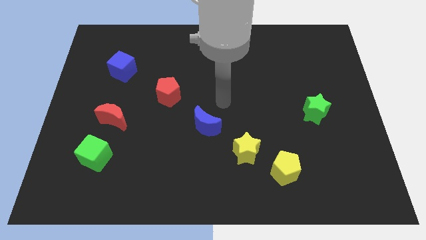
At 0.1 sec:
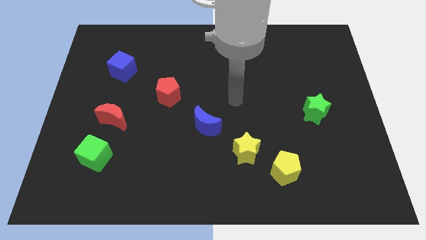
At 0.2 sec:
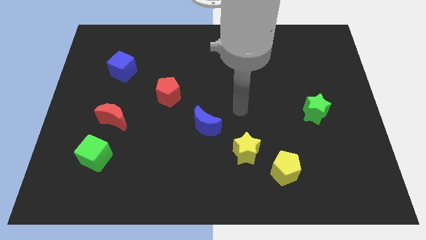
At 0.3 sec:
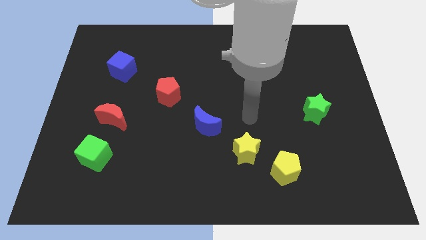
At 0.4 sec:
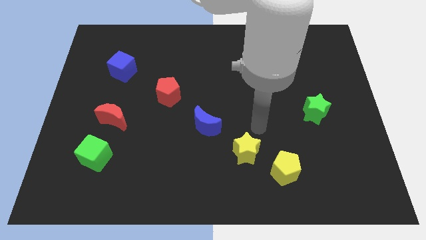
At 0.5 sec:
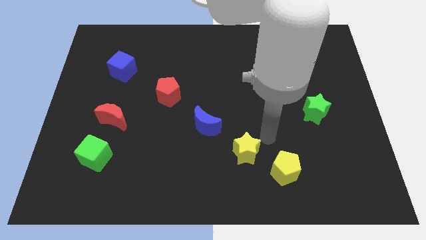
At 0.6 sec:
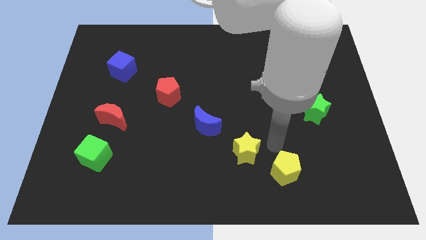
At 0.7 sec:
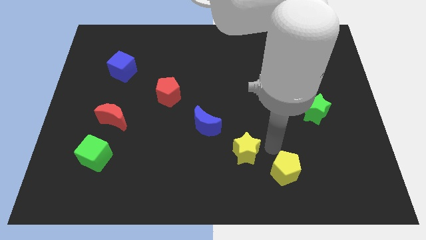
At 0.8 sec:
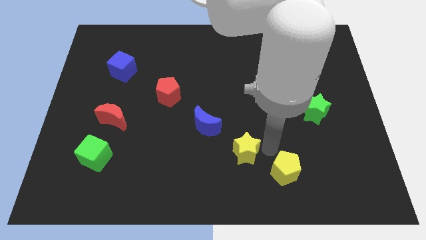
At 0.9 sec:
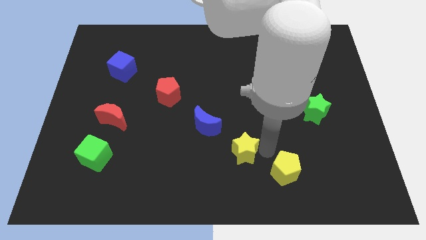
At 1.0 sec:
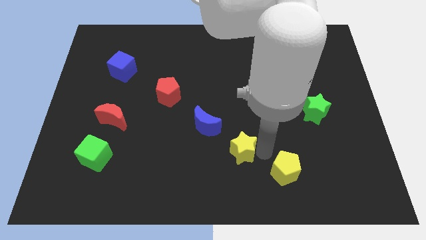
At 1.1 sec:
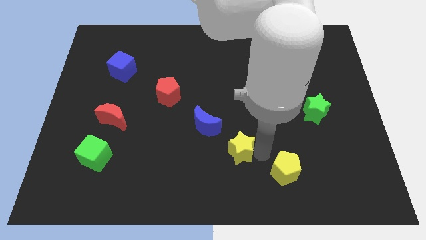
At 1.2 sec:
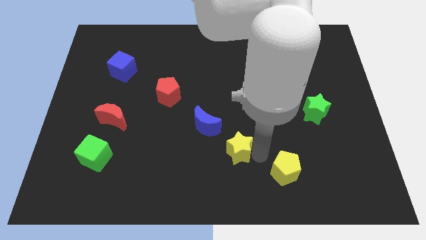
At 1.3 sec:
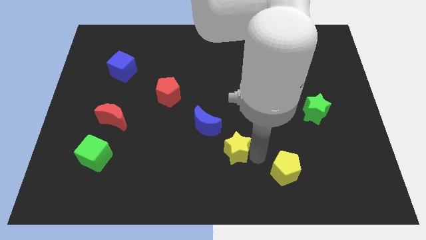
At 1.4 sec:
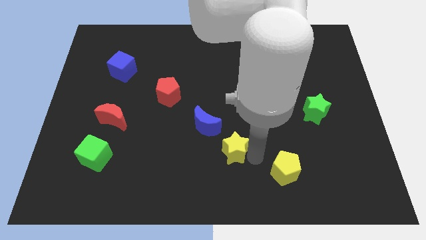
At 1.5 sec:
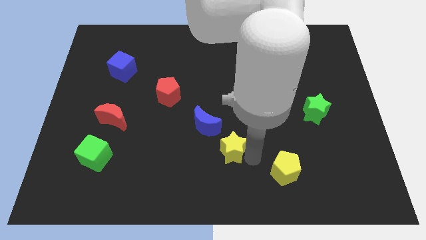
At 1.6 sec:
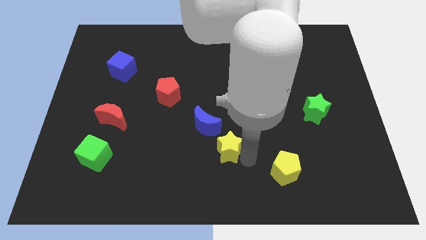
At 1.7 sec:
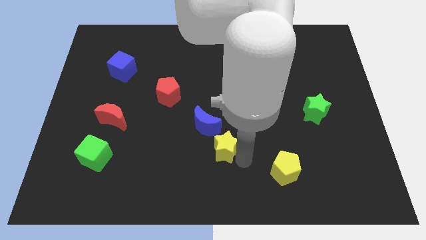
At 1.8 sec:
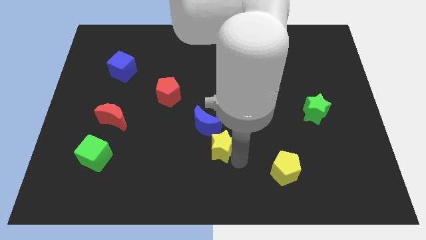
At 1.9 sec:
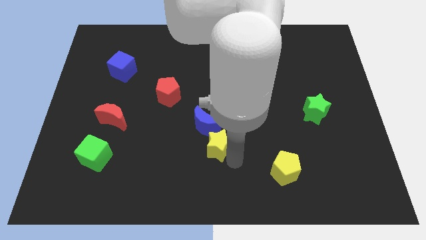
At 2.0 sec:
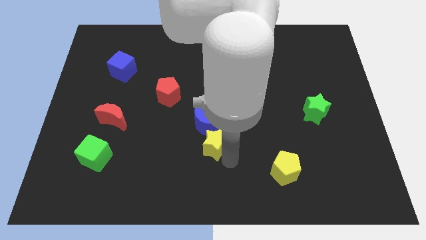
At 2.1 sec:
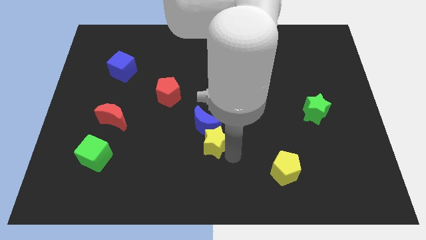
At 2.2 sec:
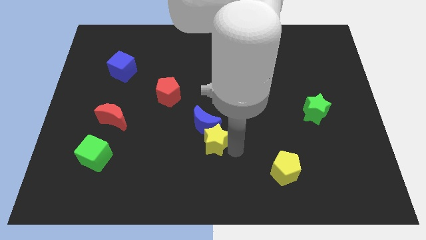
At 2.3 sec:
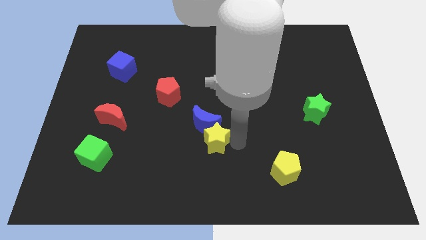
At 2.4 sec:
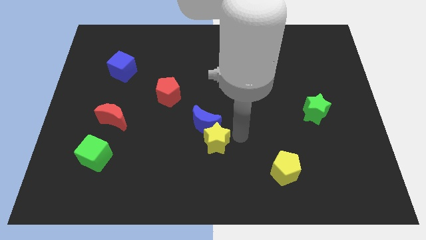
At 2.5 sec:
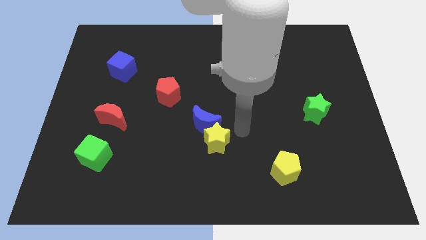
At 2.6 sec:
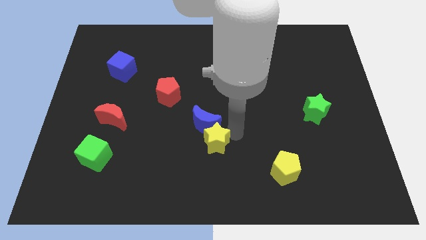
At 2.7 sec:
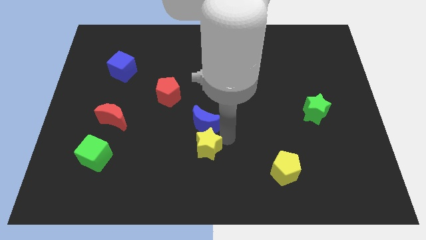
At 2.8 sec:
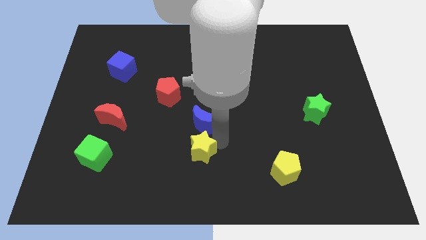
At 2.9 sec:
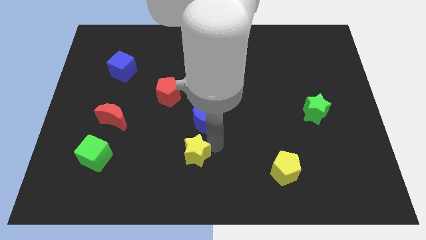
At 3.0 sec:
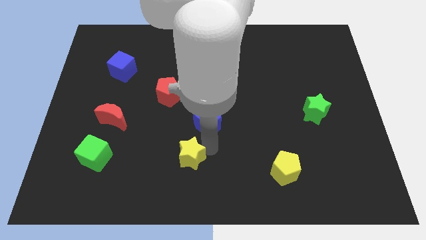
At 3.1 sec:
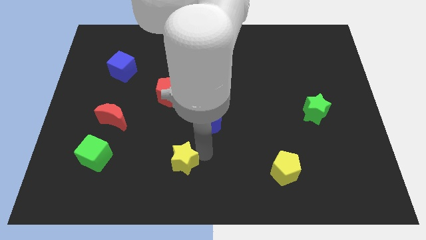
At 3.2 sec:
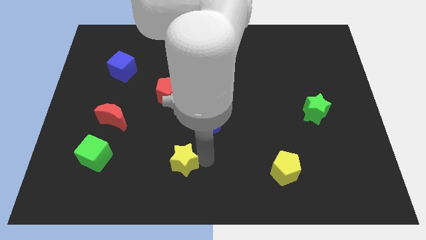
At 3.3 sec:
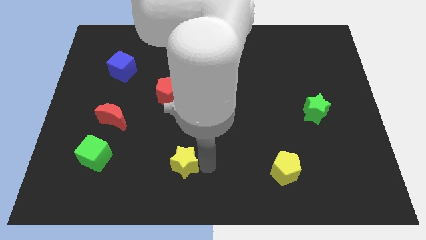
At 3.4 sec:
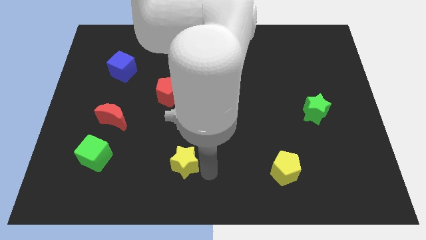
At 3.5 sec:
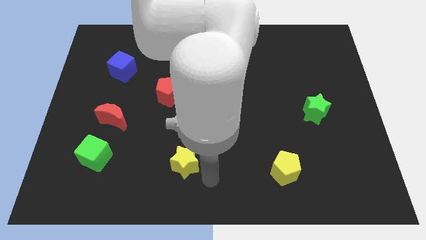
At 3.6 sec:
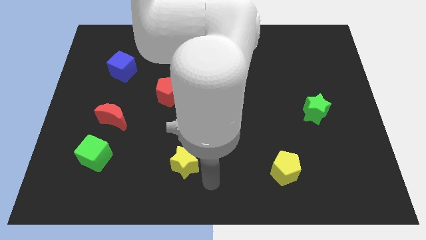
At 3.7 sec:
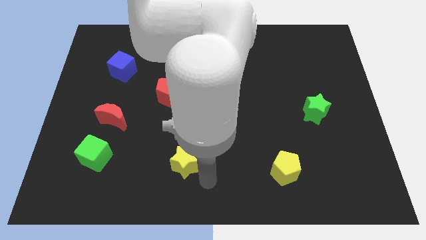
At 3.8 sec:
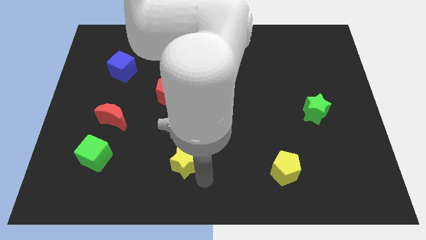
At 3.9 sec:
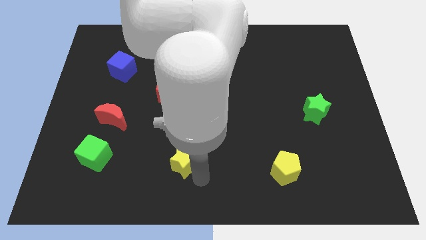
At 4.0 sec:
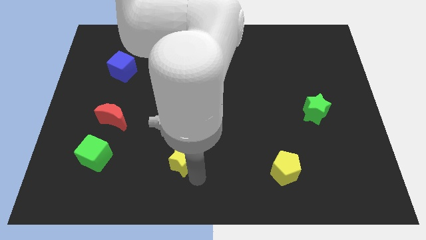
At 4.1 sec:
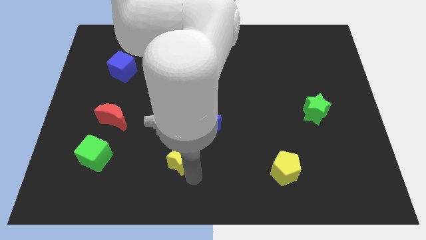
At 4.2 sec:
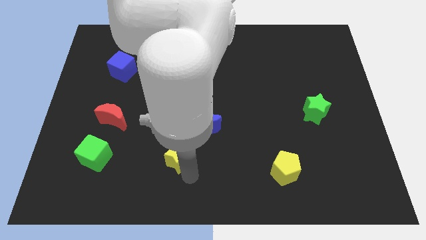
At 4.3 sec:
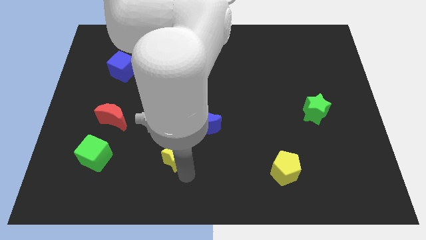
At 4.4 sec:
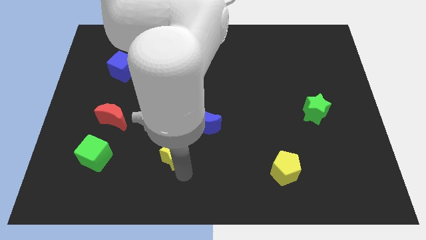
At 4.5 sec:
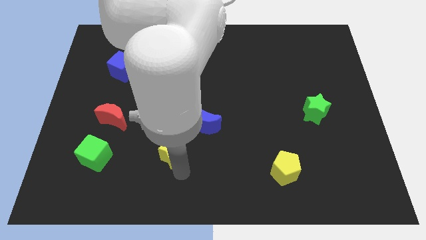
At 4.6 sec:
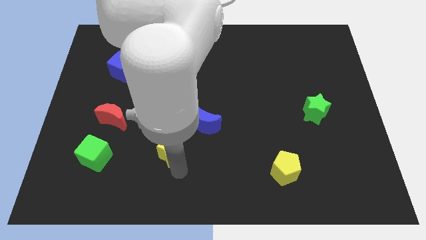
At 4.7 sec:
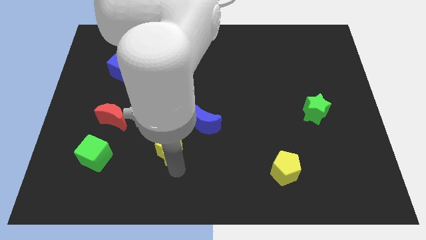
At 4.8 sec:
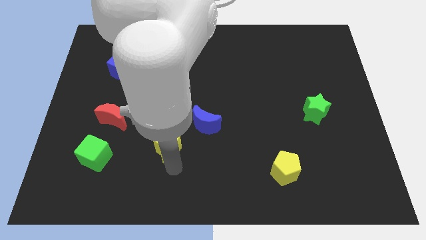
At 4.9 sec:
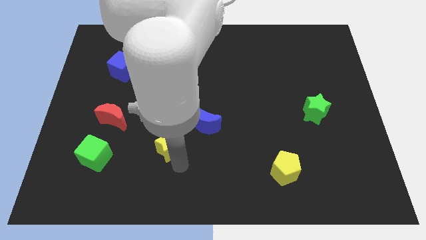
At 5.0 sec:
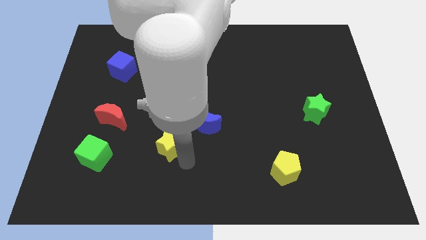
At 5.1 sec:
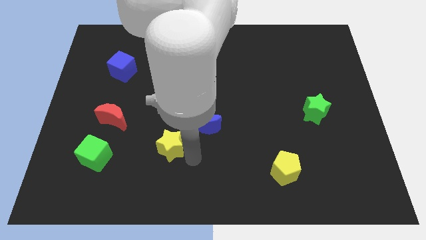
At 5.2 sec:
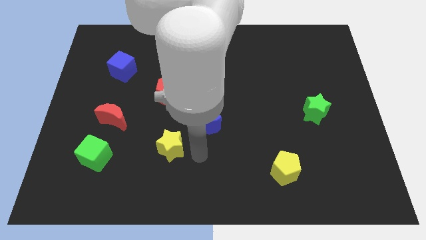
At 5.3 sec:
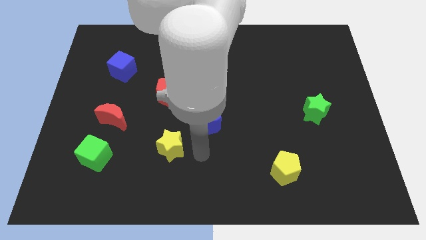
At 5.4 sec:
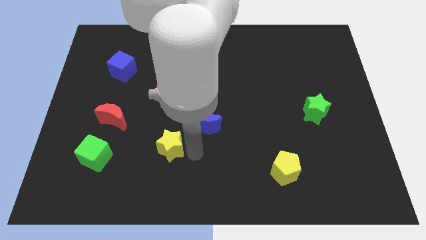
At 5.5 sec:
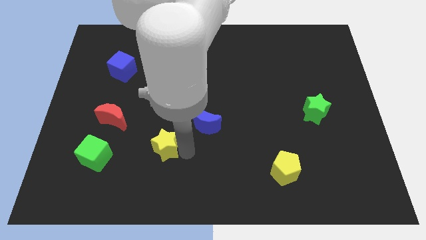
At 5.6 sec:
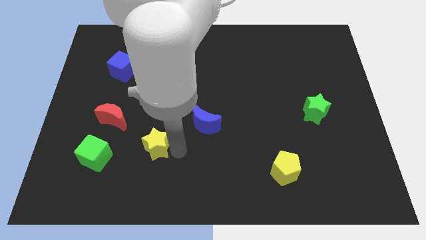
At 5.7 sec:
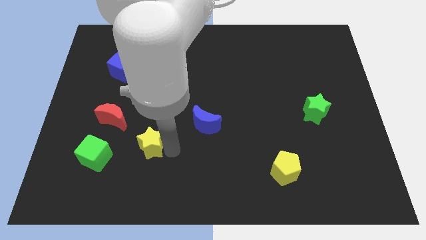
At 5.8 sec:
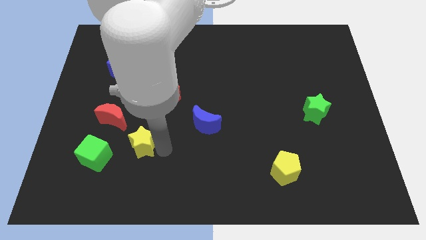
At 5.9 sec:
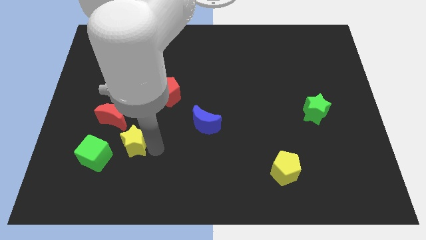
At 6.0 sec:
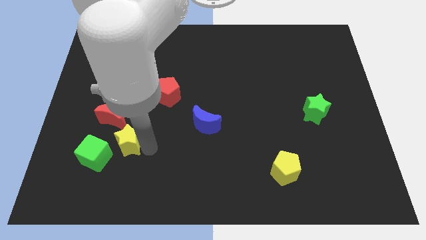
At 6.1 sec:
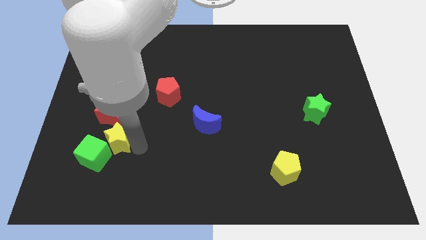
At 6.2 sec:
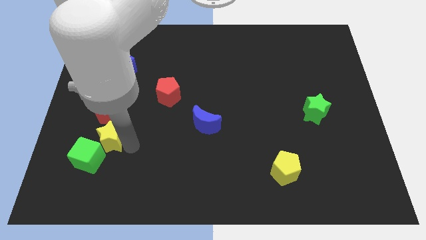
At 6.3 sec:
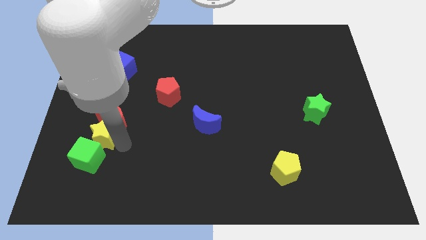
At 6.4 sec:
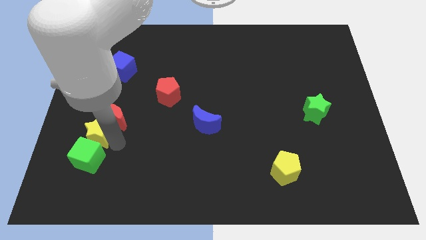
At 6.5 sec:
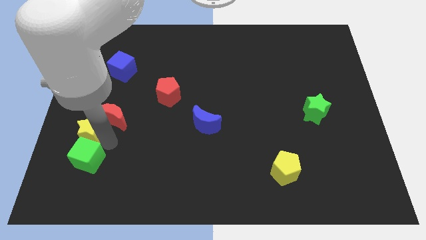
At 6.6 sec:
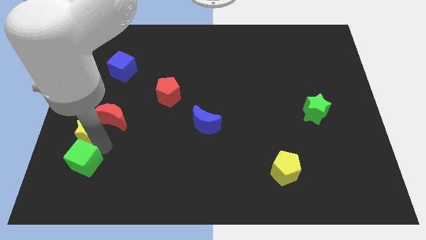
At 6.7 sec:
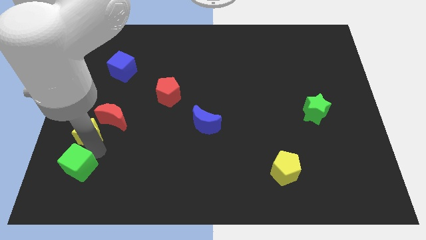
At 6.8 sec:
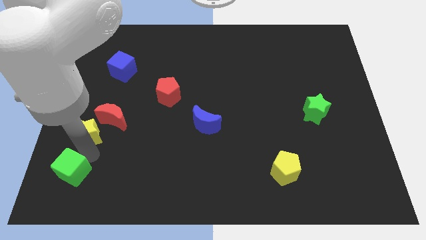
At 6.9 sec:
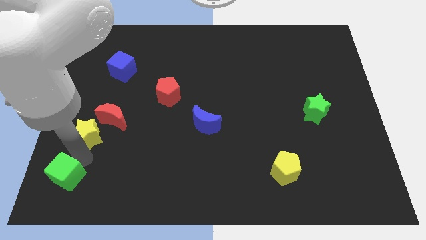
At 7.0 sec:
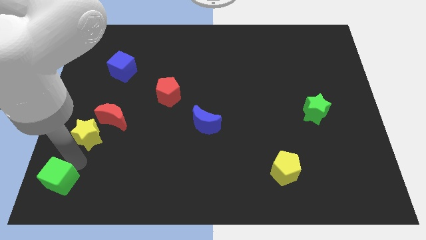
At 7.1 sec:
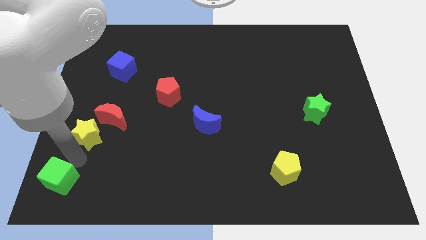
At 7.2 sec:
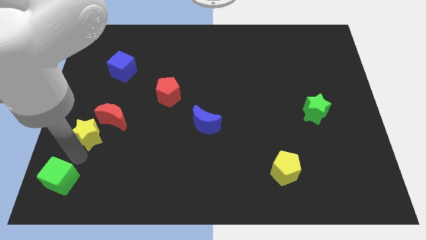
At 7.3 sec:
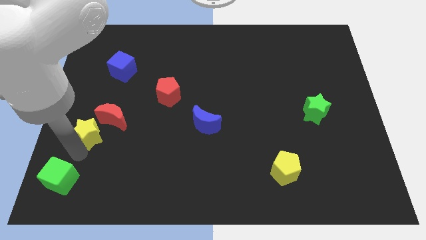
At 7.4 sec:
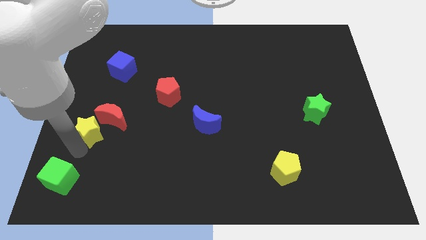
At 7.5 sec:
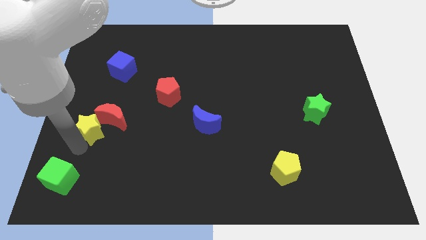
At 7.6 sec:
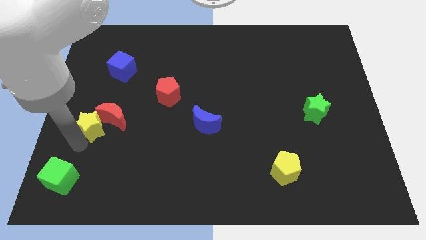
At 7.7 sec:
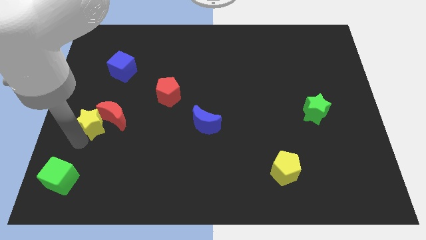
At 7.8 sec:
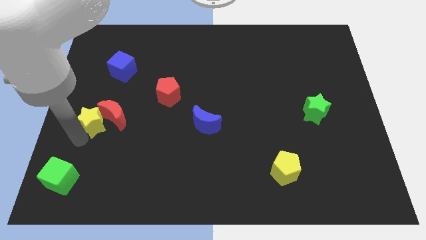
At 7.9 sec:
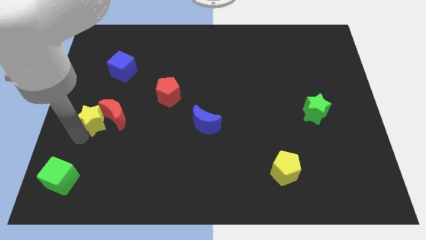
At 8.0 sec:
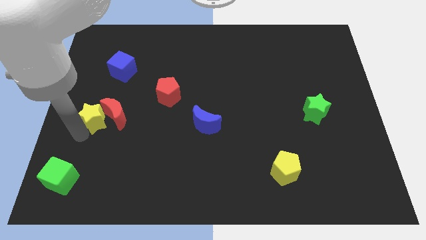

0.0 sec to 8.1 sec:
put the yellow star diagonally up and to the left of the red moon
